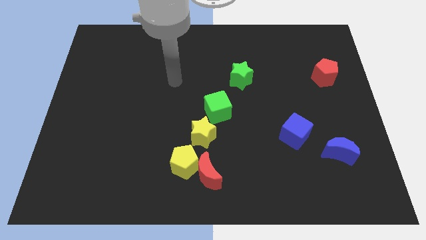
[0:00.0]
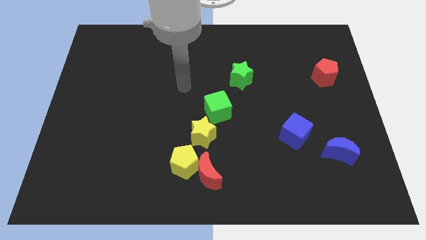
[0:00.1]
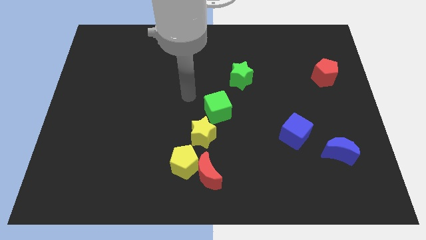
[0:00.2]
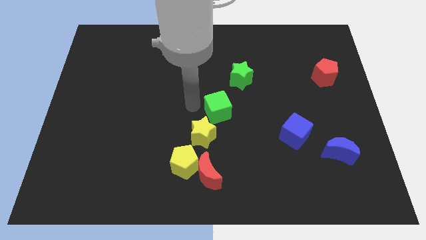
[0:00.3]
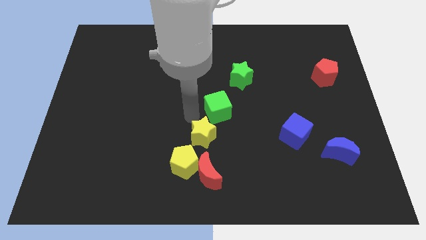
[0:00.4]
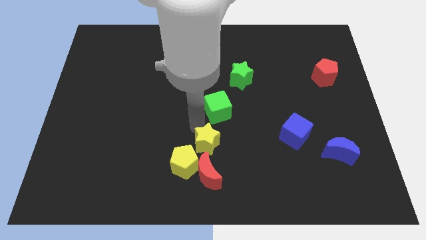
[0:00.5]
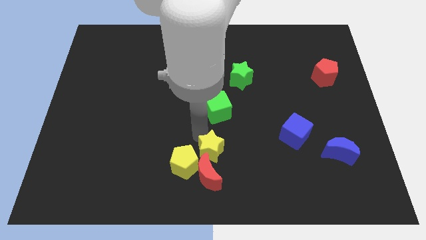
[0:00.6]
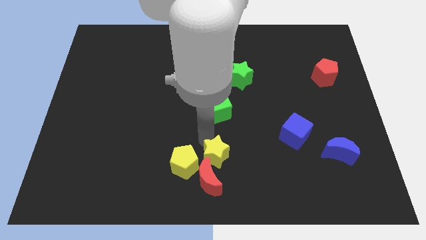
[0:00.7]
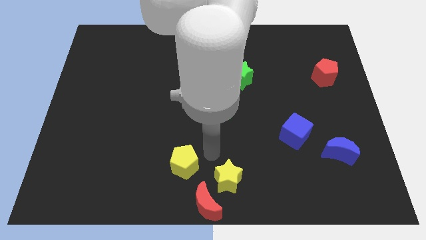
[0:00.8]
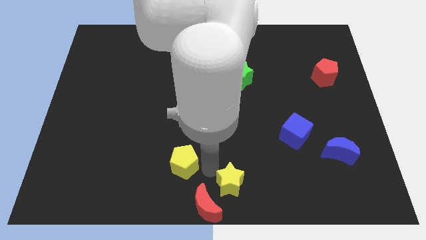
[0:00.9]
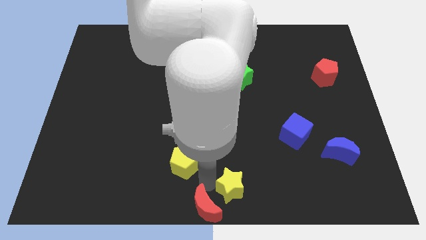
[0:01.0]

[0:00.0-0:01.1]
move the yellow pentagon away from the red moon and yellow star

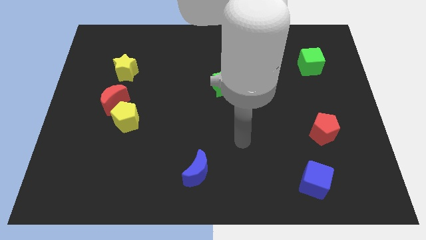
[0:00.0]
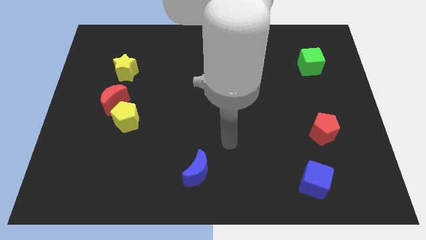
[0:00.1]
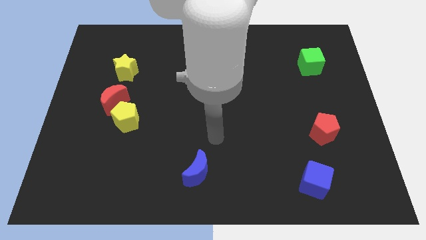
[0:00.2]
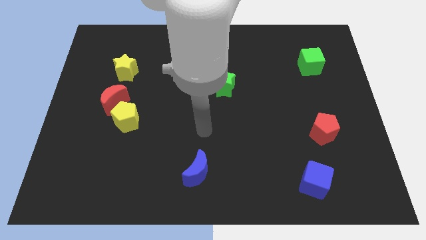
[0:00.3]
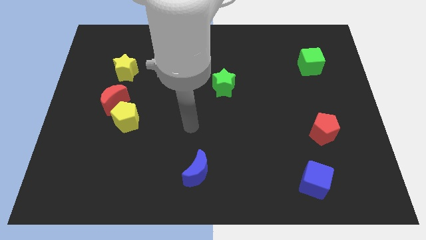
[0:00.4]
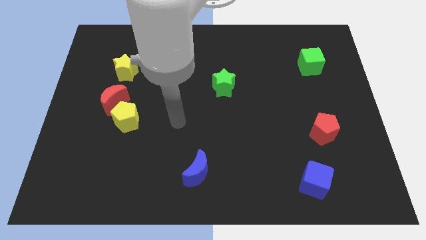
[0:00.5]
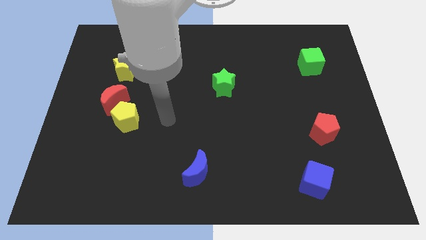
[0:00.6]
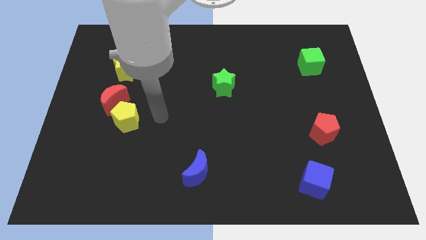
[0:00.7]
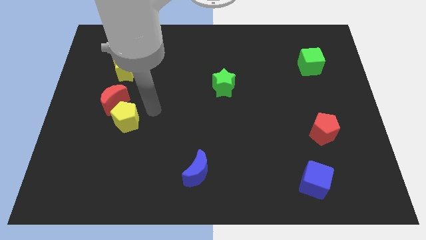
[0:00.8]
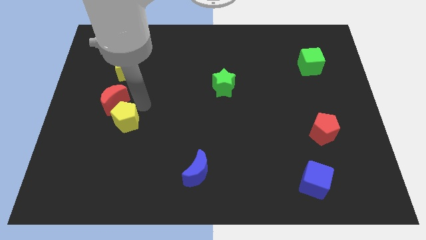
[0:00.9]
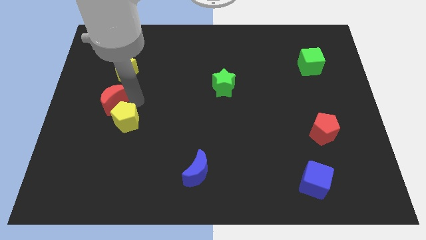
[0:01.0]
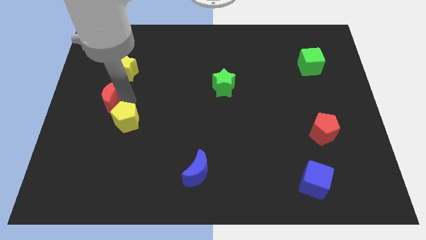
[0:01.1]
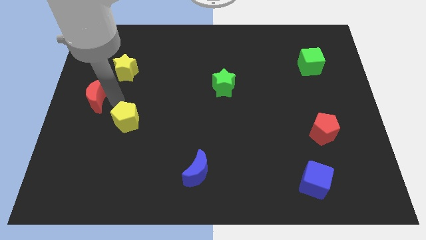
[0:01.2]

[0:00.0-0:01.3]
separate the yellow pentagon from the red moon

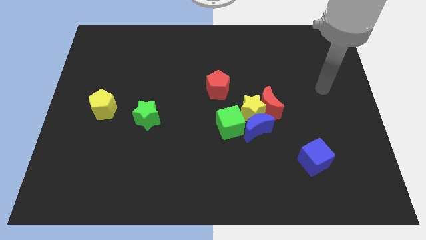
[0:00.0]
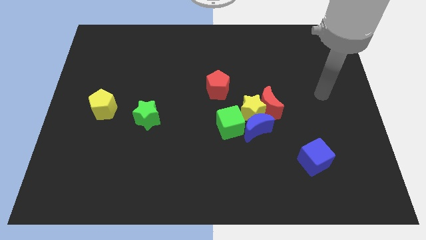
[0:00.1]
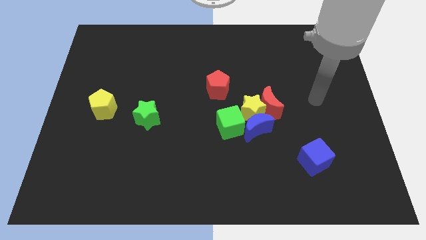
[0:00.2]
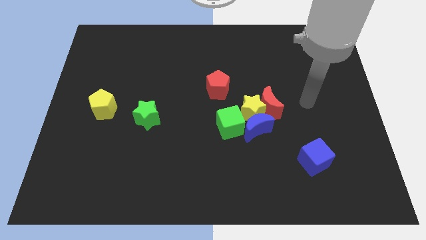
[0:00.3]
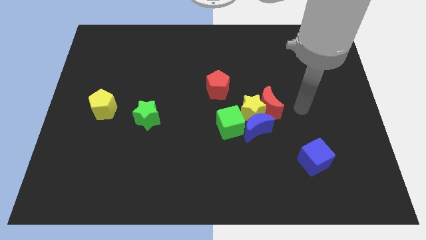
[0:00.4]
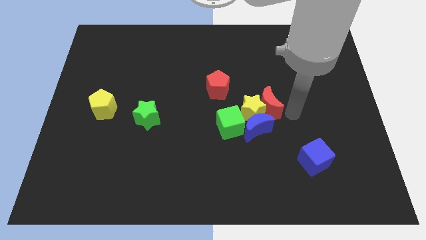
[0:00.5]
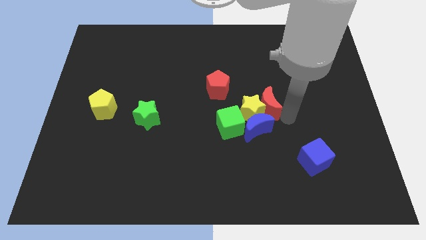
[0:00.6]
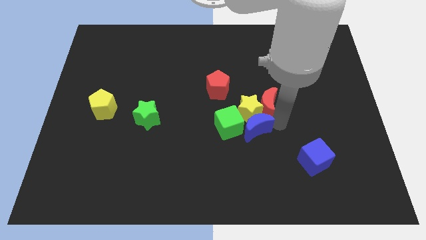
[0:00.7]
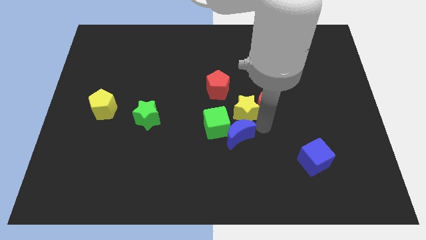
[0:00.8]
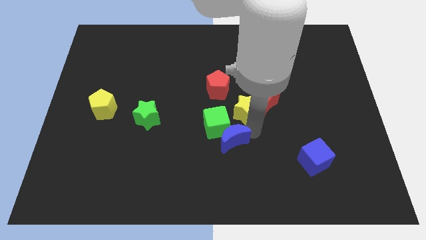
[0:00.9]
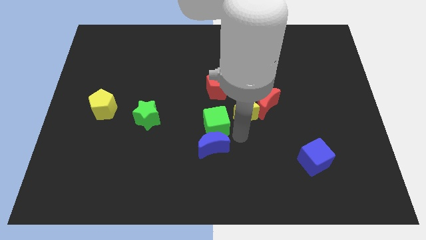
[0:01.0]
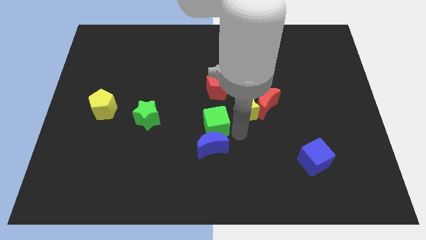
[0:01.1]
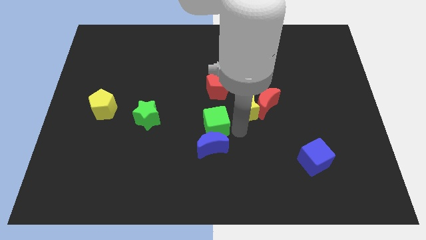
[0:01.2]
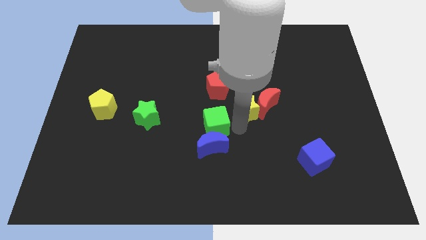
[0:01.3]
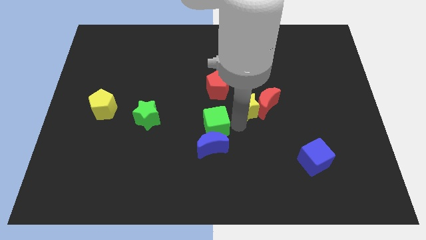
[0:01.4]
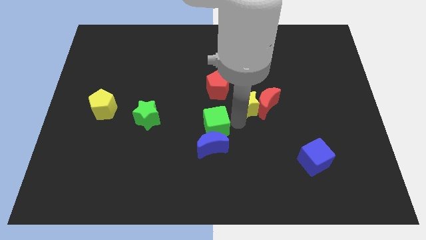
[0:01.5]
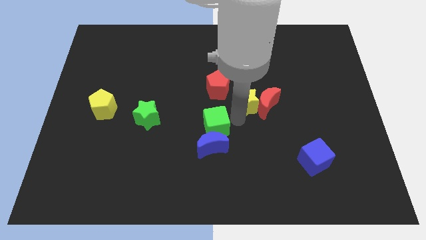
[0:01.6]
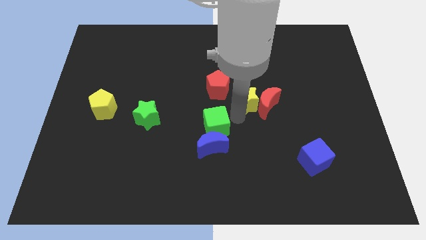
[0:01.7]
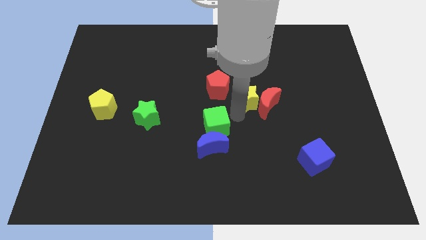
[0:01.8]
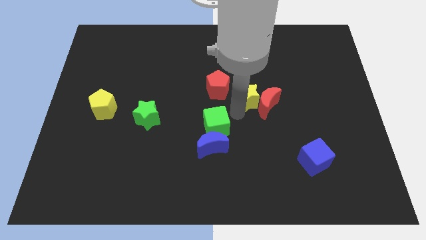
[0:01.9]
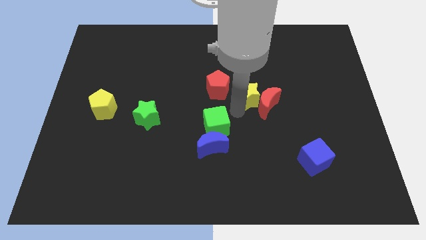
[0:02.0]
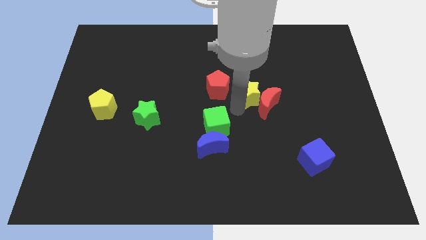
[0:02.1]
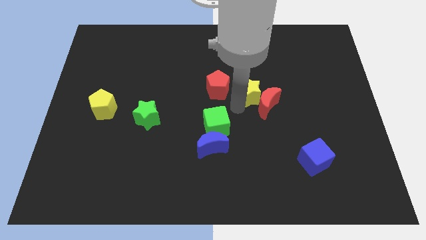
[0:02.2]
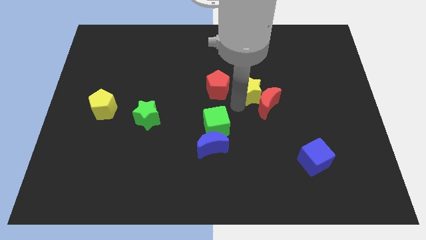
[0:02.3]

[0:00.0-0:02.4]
move the yellow star away from the red moon, blue moon, and green cube

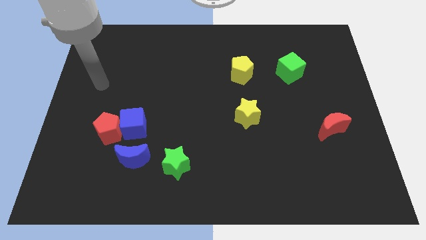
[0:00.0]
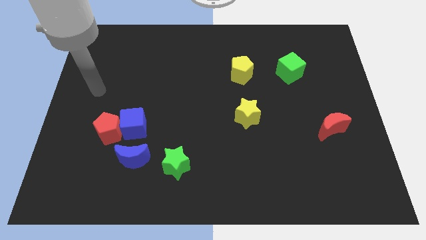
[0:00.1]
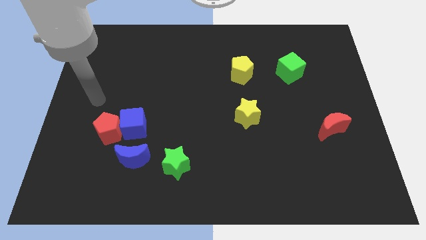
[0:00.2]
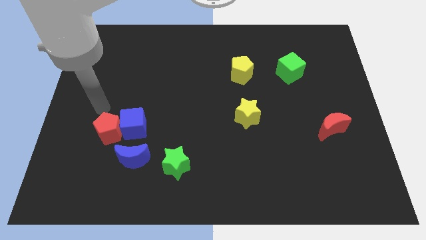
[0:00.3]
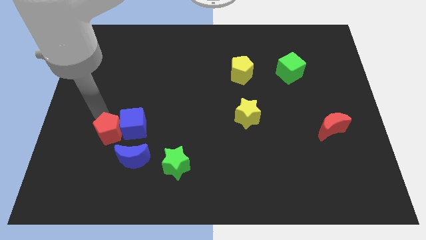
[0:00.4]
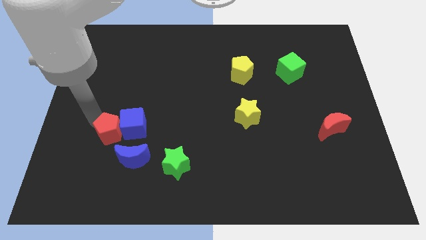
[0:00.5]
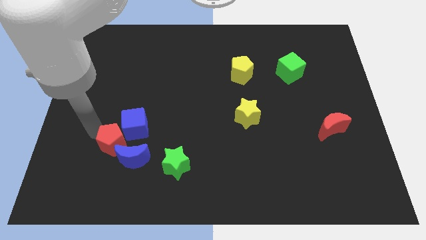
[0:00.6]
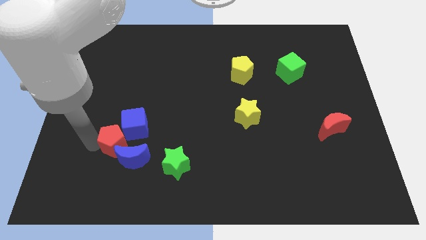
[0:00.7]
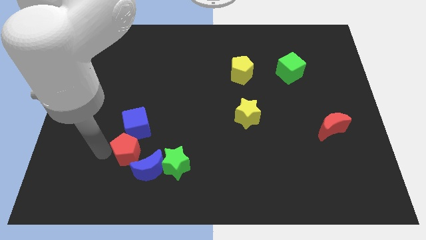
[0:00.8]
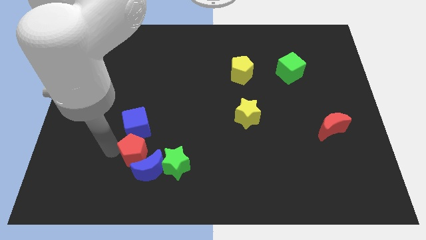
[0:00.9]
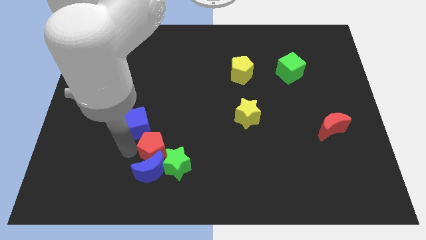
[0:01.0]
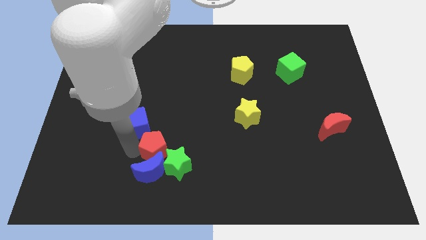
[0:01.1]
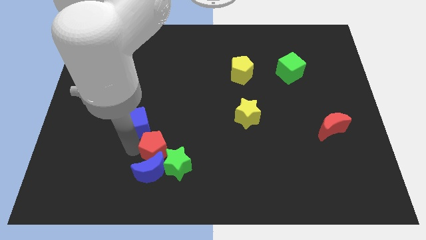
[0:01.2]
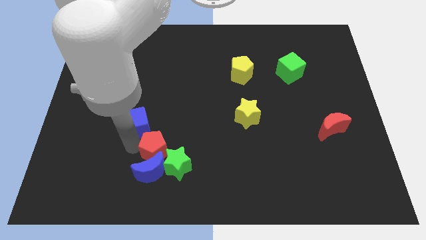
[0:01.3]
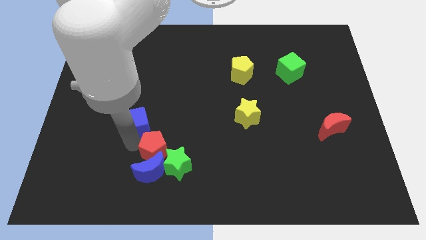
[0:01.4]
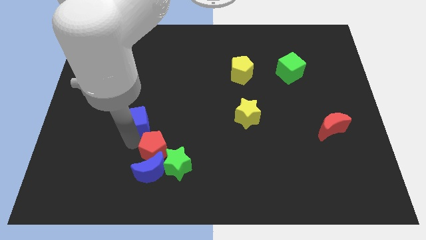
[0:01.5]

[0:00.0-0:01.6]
separate the blue cube from the red pentagon and blue moon

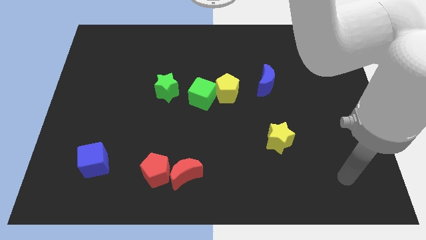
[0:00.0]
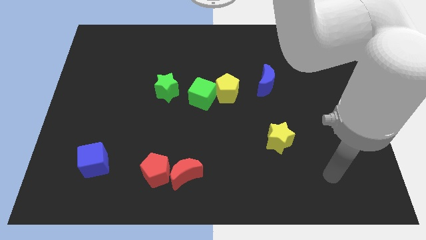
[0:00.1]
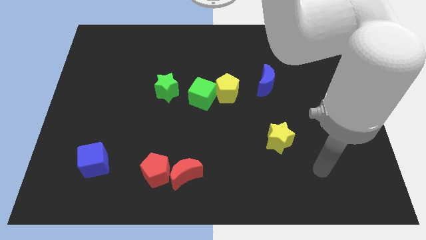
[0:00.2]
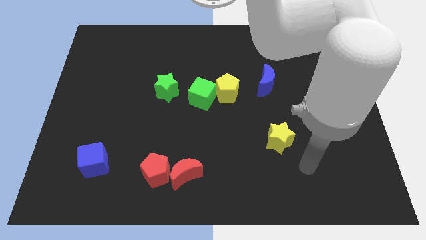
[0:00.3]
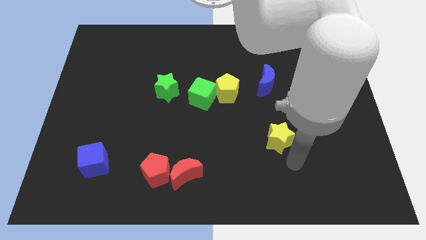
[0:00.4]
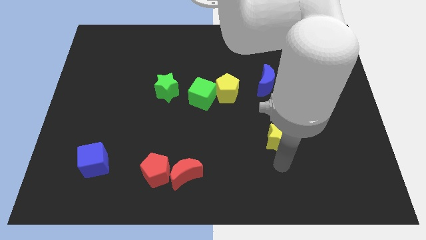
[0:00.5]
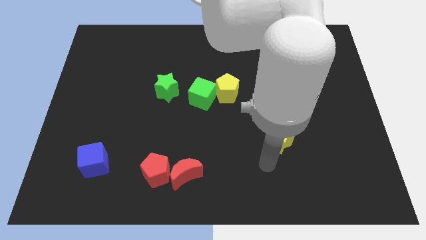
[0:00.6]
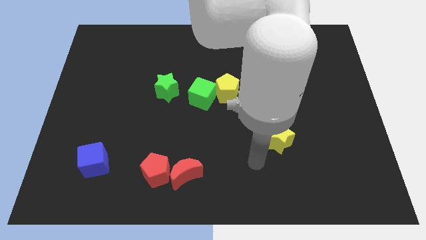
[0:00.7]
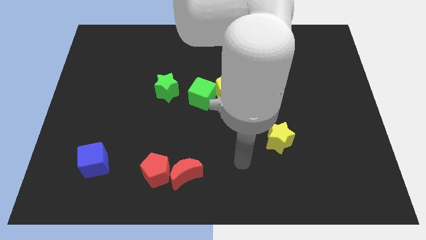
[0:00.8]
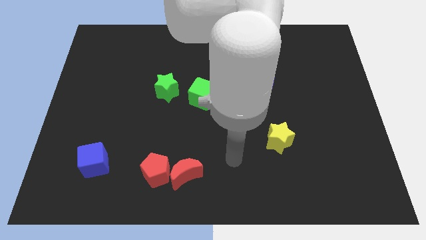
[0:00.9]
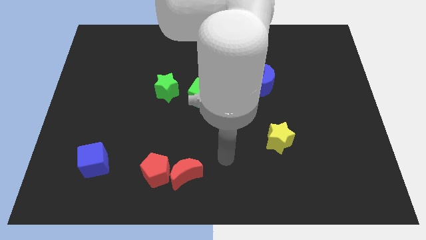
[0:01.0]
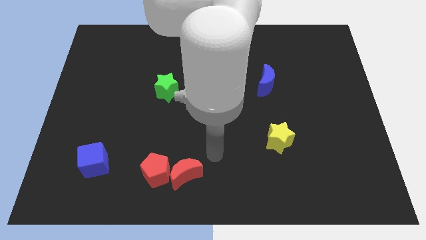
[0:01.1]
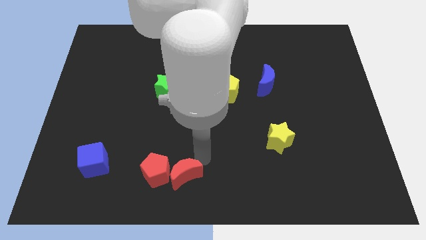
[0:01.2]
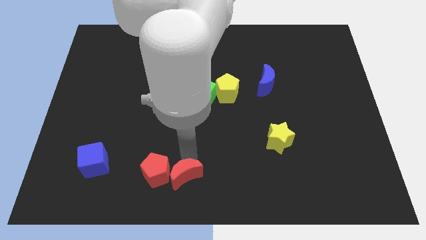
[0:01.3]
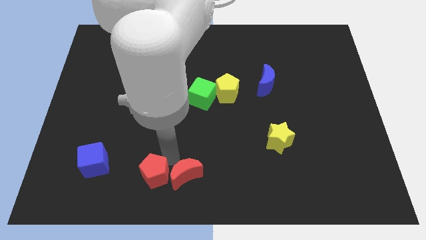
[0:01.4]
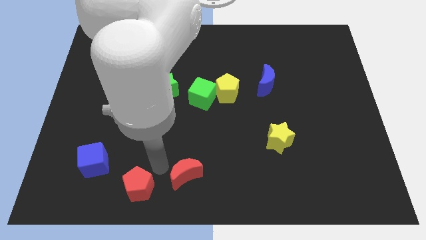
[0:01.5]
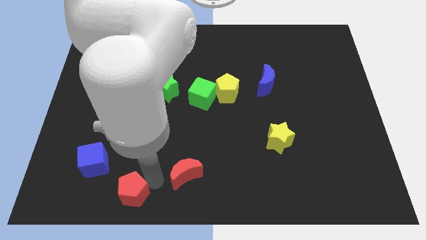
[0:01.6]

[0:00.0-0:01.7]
separate the red moon from the red pentagon

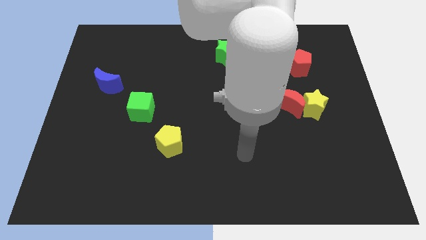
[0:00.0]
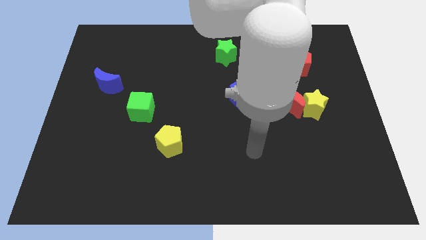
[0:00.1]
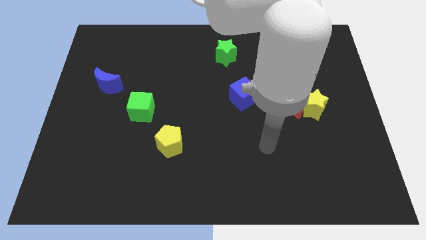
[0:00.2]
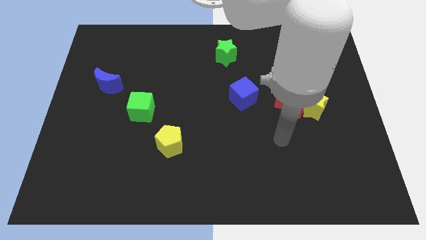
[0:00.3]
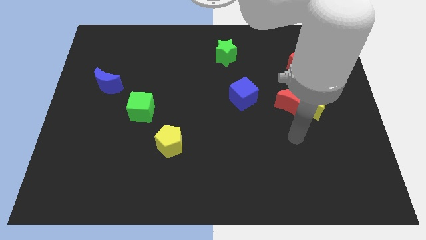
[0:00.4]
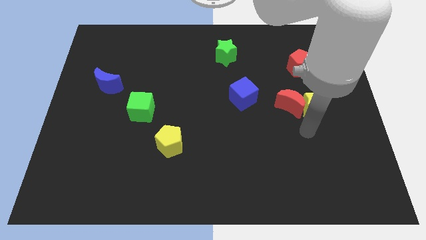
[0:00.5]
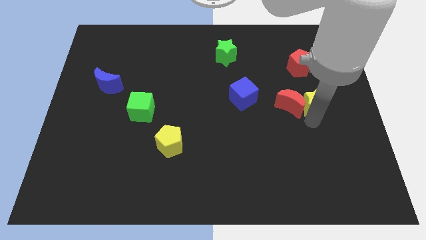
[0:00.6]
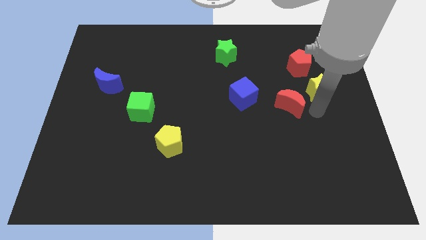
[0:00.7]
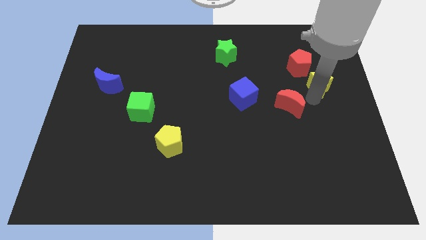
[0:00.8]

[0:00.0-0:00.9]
pull the red moon apart from the yellow star

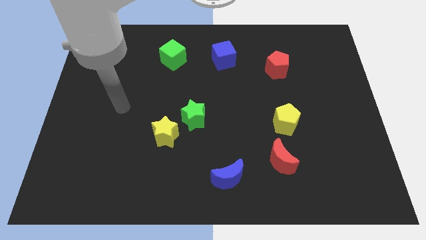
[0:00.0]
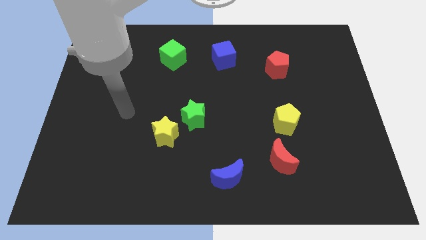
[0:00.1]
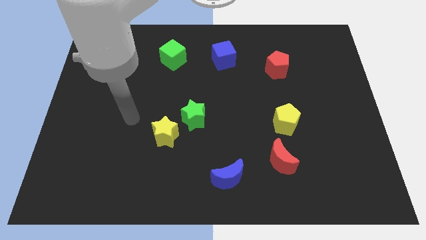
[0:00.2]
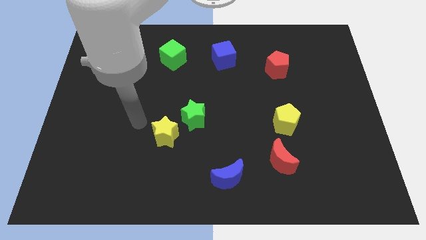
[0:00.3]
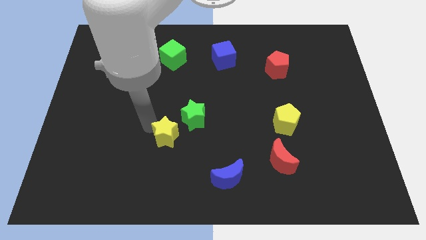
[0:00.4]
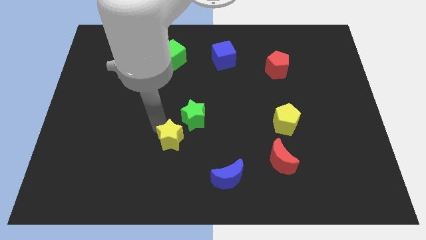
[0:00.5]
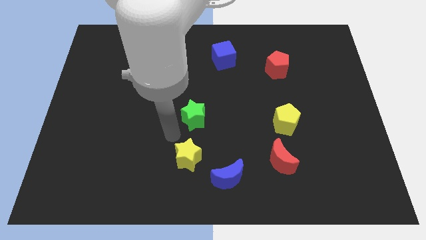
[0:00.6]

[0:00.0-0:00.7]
separate the green star from the yellow star
